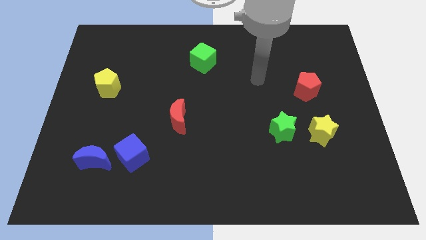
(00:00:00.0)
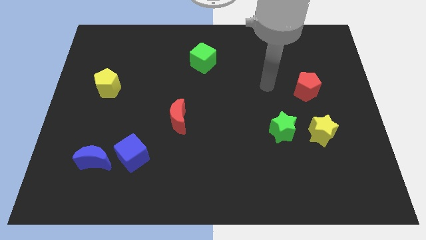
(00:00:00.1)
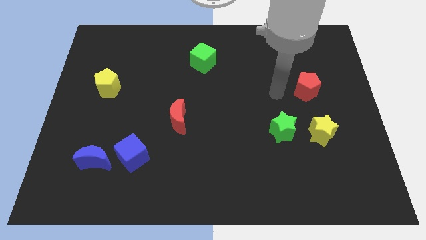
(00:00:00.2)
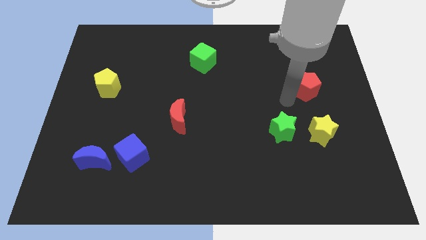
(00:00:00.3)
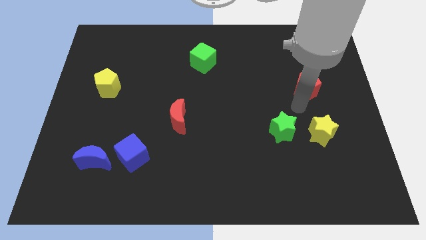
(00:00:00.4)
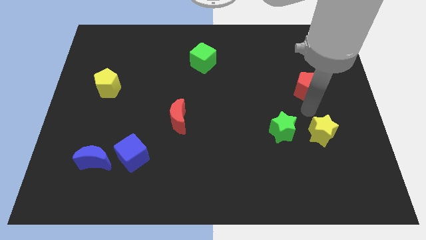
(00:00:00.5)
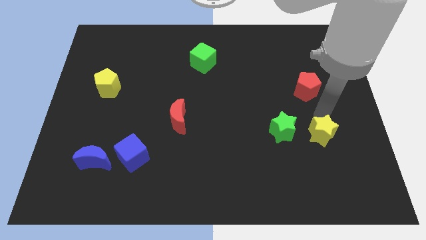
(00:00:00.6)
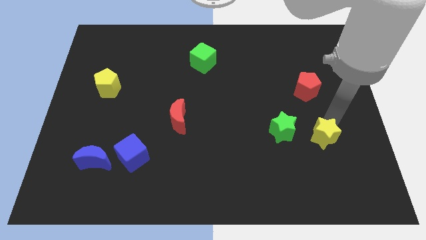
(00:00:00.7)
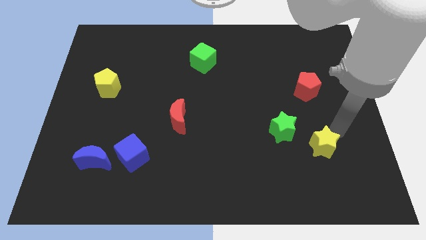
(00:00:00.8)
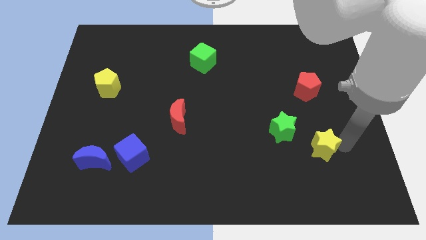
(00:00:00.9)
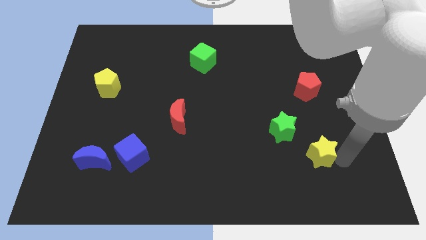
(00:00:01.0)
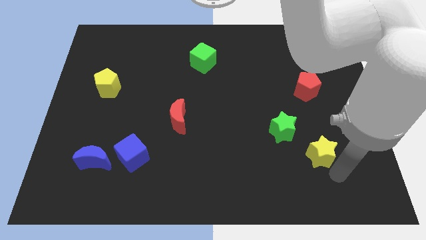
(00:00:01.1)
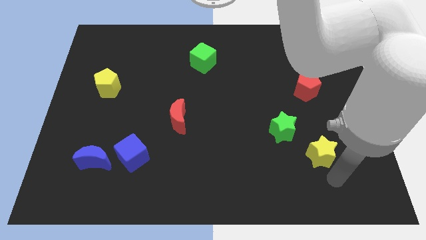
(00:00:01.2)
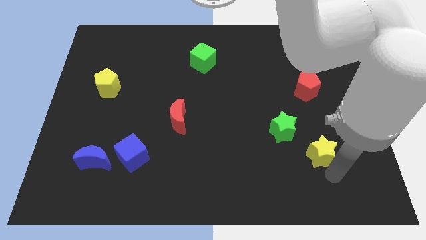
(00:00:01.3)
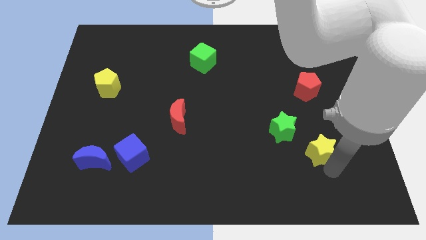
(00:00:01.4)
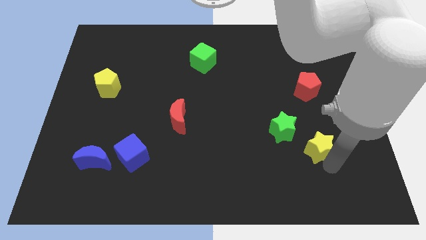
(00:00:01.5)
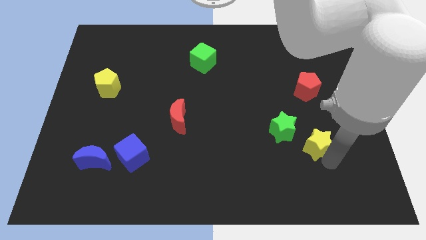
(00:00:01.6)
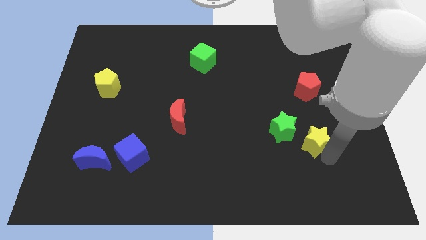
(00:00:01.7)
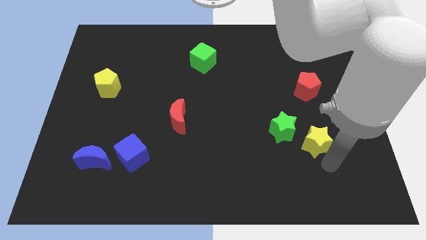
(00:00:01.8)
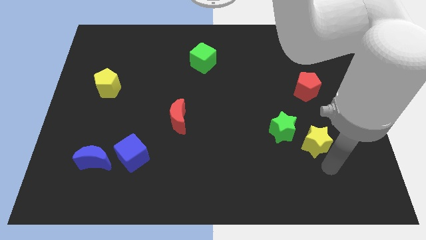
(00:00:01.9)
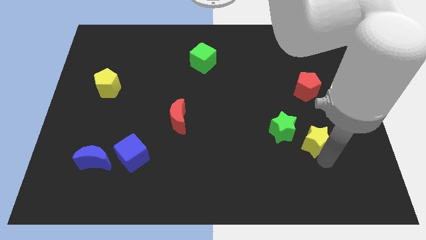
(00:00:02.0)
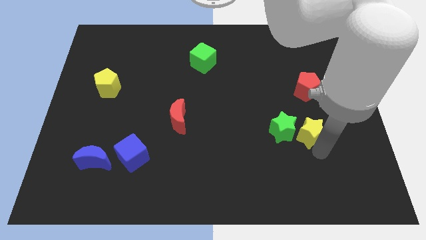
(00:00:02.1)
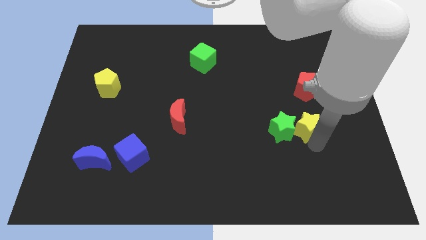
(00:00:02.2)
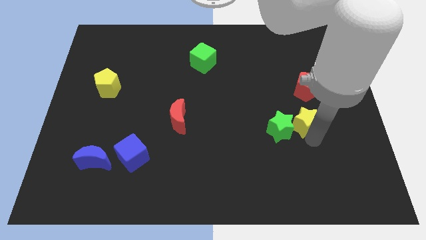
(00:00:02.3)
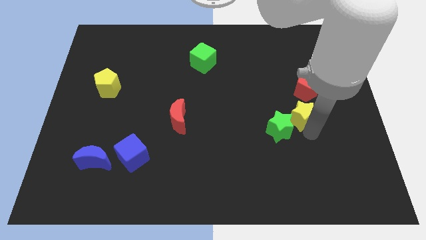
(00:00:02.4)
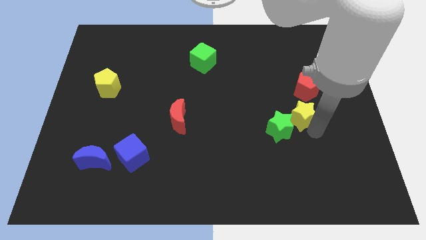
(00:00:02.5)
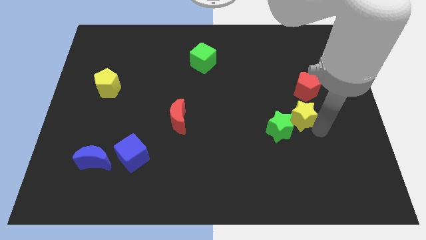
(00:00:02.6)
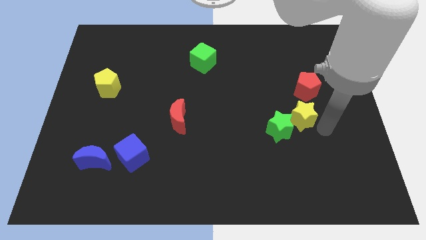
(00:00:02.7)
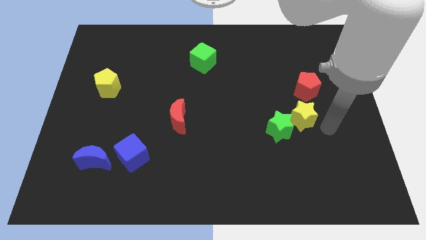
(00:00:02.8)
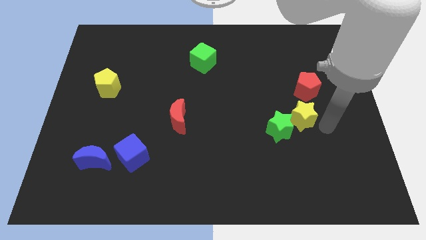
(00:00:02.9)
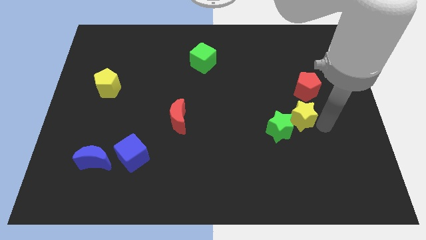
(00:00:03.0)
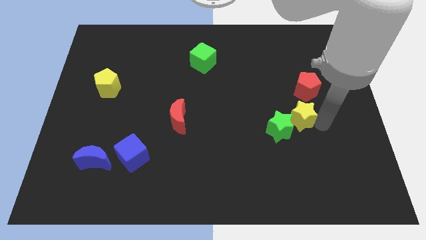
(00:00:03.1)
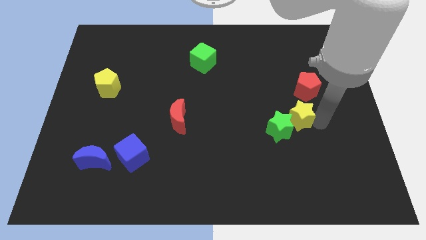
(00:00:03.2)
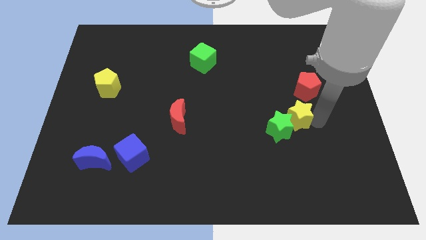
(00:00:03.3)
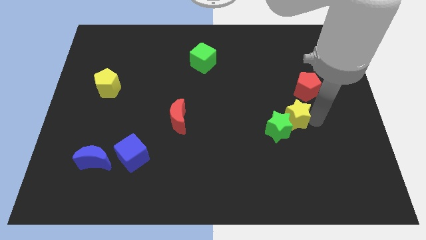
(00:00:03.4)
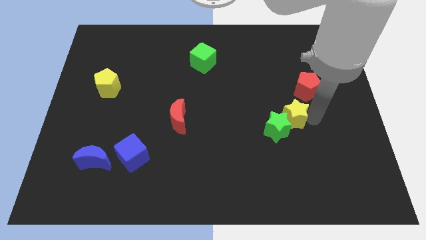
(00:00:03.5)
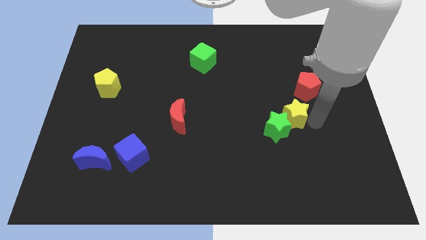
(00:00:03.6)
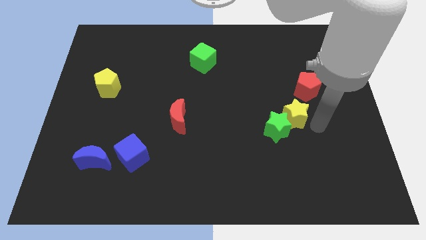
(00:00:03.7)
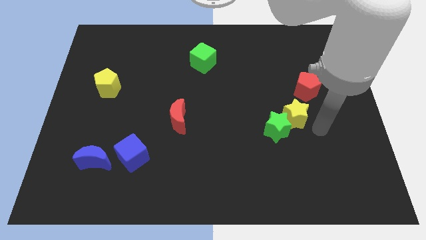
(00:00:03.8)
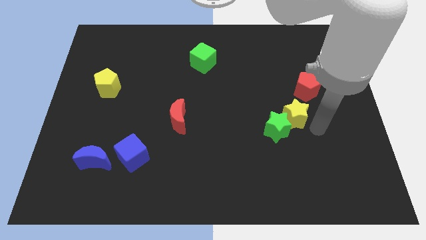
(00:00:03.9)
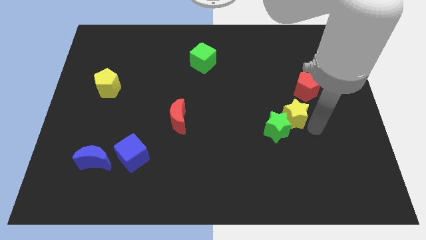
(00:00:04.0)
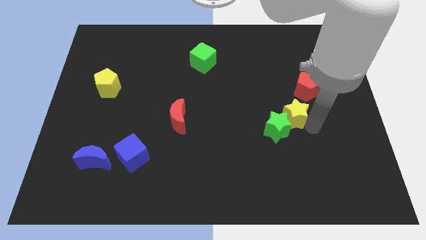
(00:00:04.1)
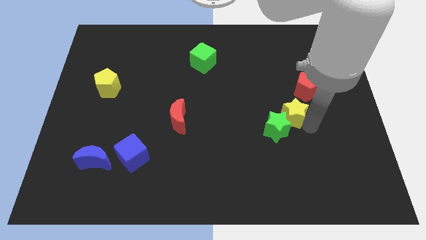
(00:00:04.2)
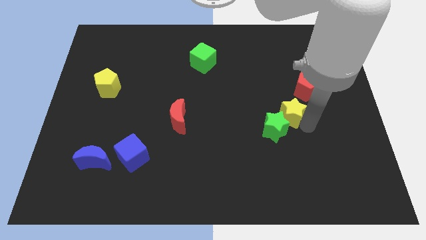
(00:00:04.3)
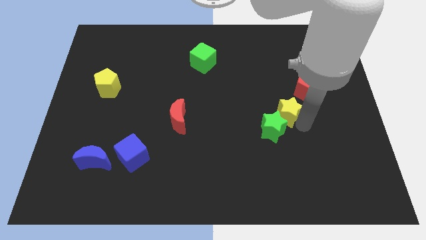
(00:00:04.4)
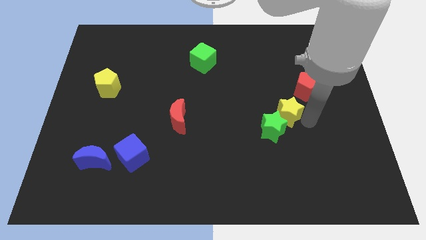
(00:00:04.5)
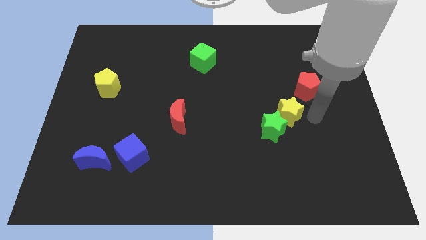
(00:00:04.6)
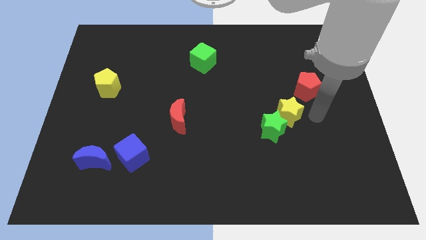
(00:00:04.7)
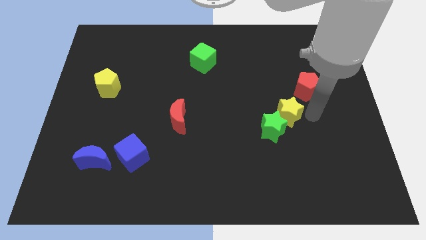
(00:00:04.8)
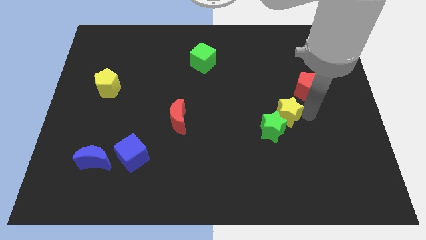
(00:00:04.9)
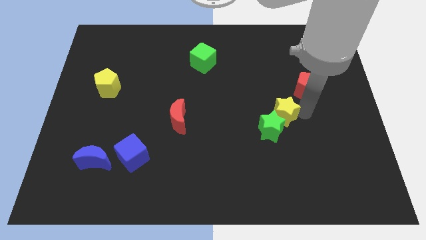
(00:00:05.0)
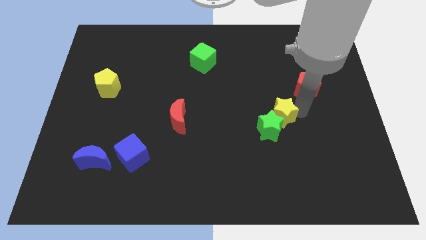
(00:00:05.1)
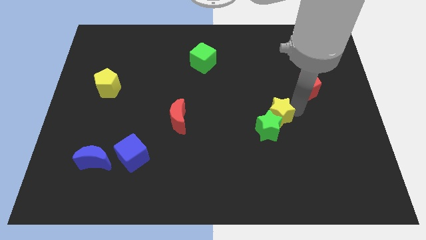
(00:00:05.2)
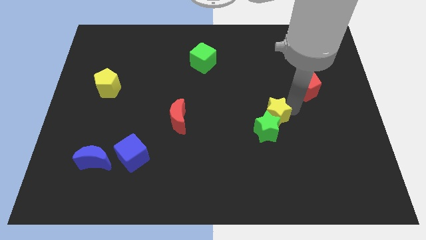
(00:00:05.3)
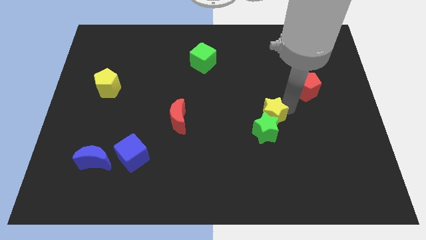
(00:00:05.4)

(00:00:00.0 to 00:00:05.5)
put the yellow star to the top left of the green star

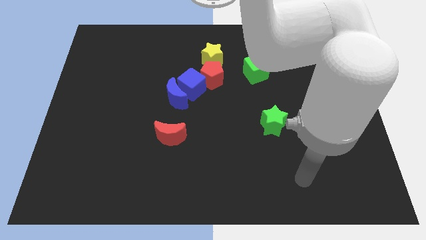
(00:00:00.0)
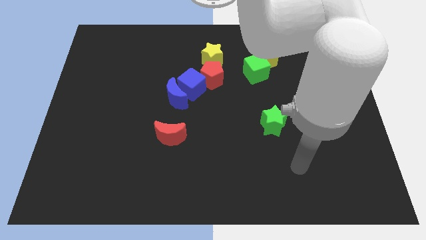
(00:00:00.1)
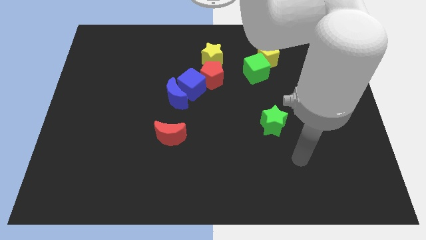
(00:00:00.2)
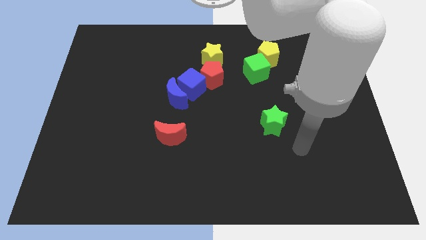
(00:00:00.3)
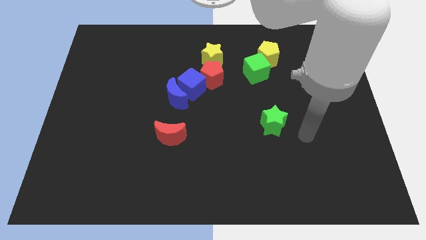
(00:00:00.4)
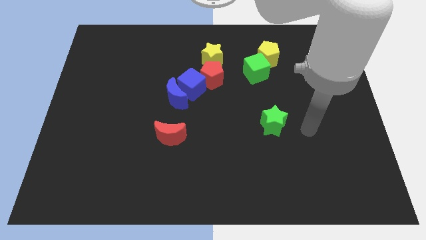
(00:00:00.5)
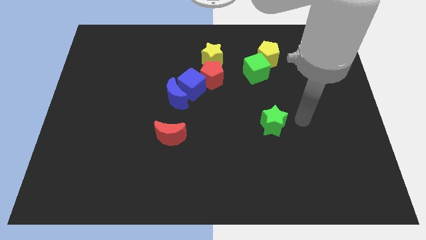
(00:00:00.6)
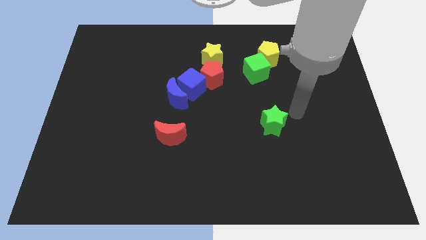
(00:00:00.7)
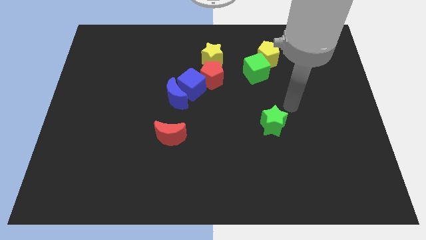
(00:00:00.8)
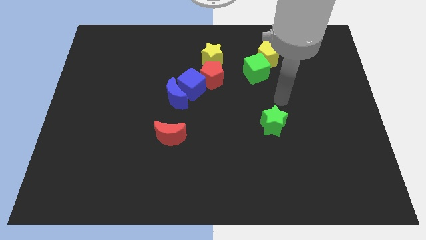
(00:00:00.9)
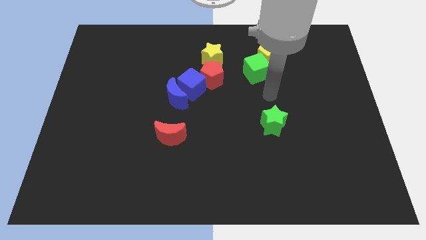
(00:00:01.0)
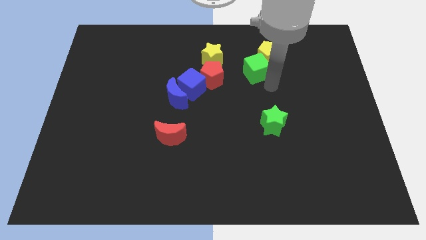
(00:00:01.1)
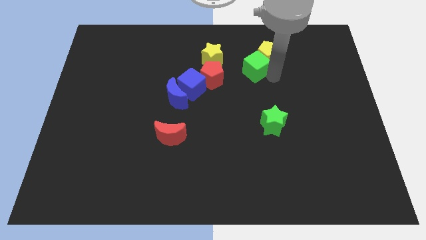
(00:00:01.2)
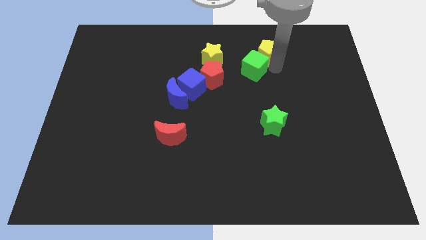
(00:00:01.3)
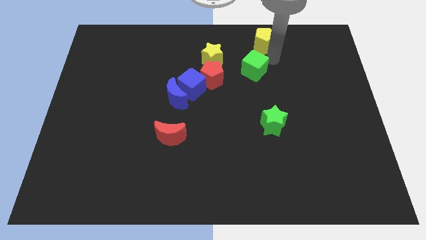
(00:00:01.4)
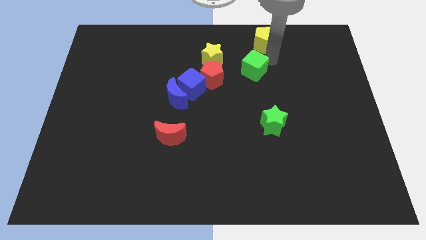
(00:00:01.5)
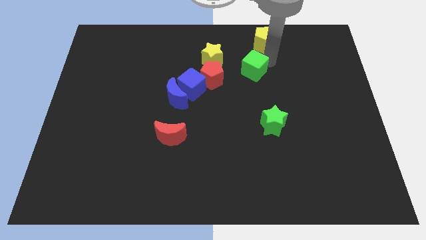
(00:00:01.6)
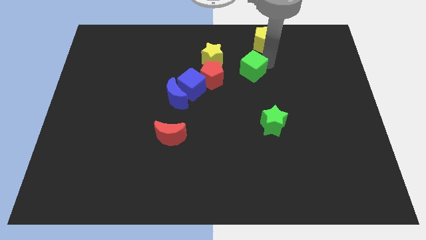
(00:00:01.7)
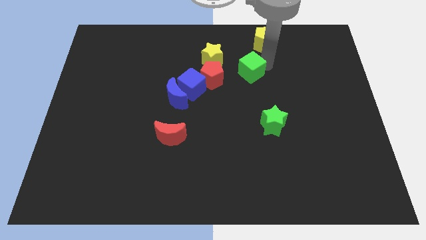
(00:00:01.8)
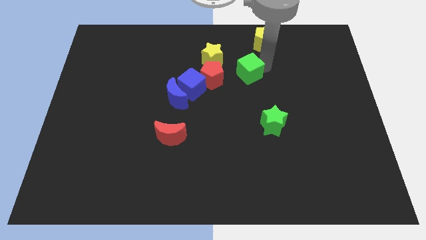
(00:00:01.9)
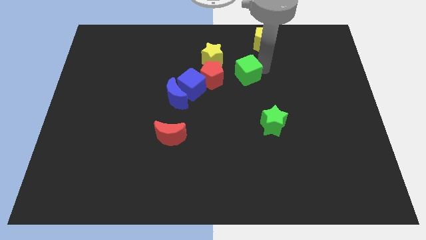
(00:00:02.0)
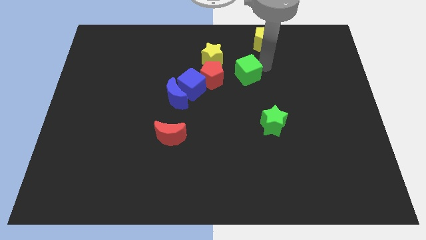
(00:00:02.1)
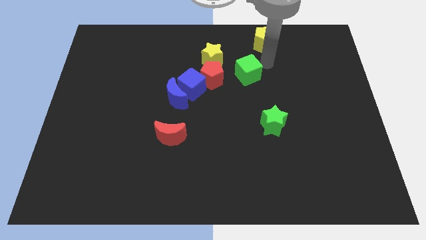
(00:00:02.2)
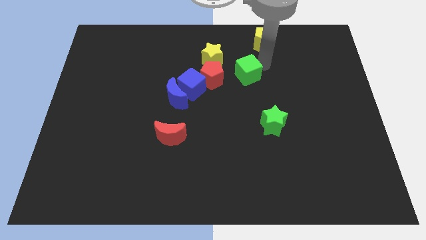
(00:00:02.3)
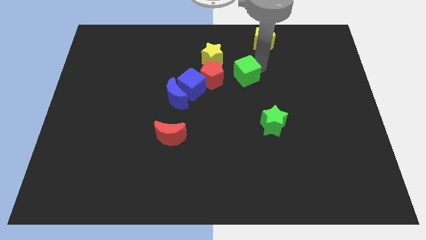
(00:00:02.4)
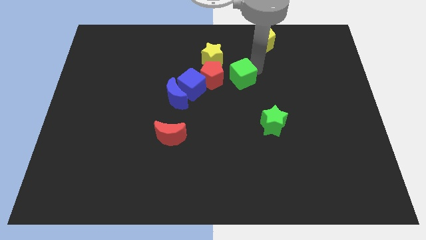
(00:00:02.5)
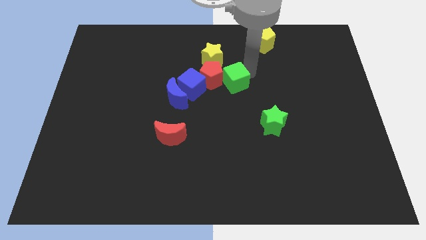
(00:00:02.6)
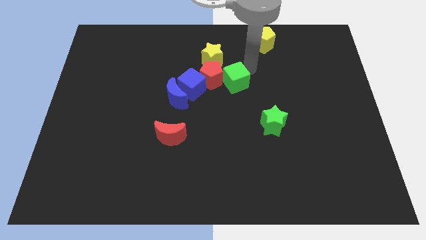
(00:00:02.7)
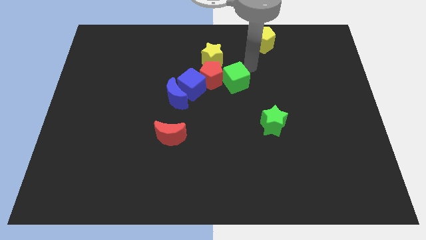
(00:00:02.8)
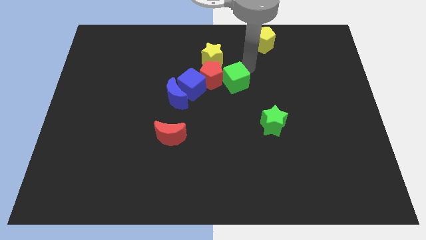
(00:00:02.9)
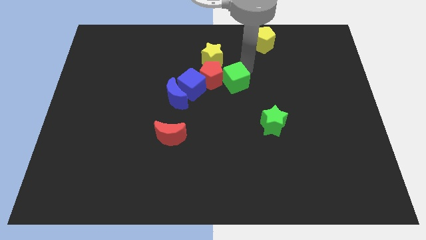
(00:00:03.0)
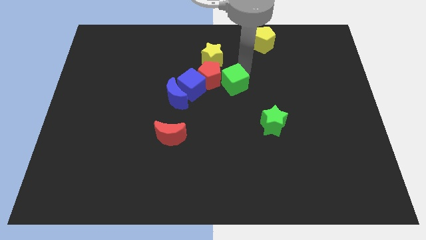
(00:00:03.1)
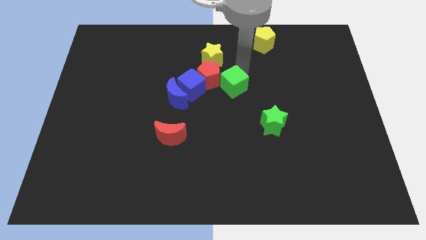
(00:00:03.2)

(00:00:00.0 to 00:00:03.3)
slide the green cube to the right of the blue moon
